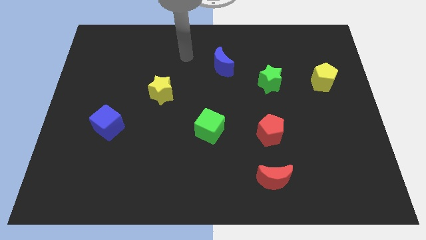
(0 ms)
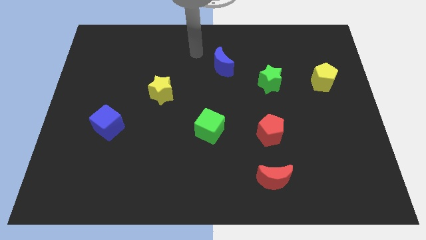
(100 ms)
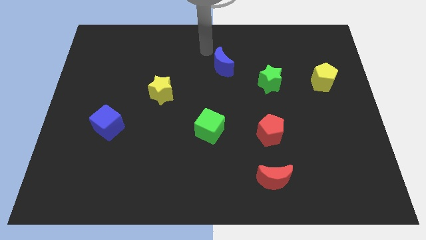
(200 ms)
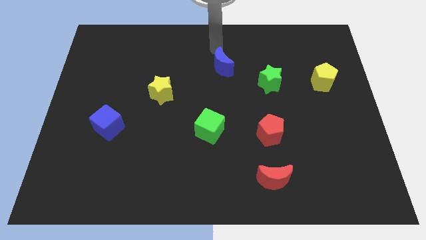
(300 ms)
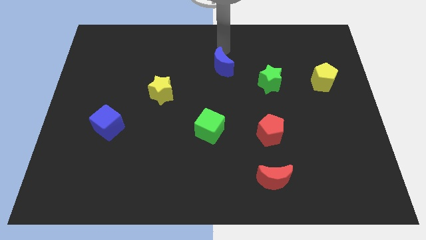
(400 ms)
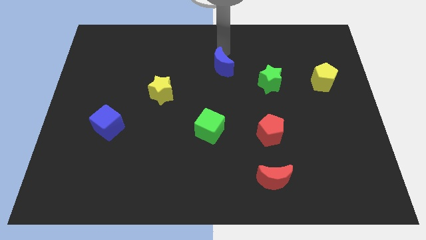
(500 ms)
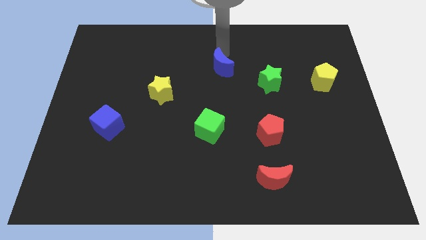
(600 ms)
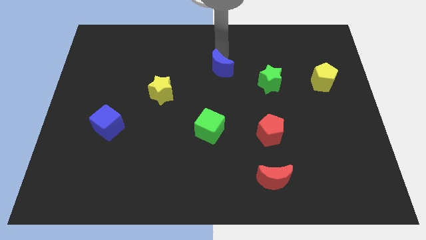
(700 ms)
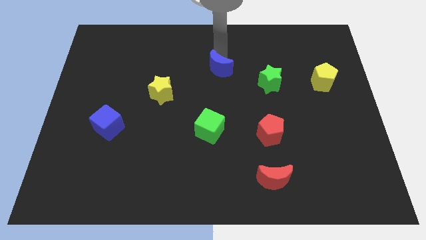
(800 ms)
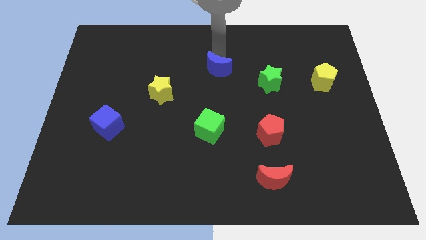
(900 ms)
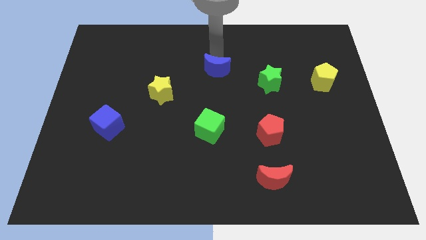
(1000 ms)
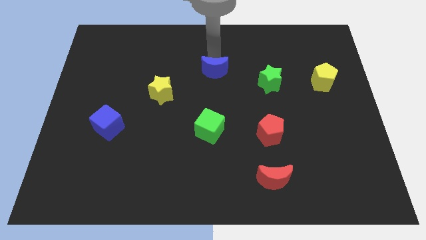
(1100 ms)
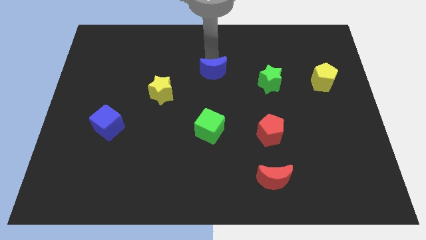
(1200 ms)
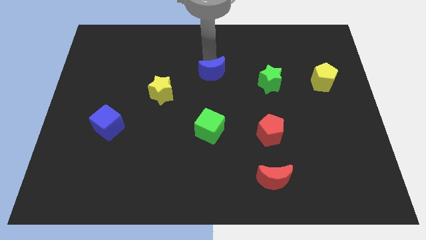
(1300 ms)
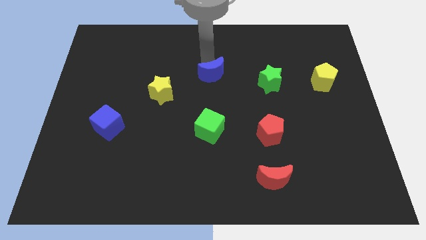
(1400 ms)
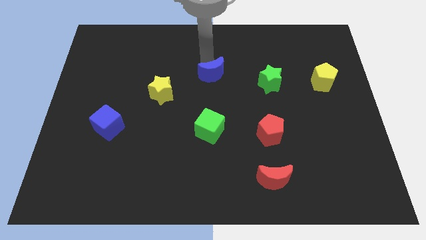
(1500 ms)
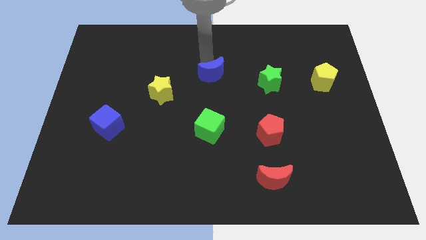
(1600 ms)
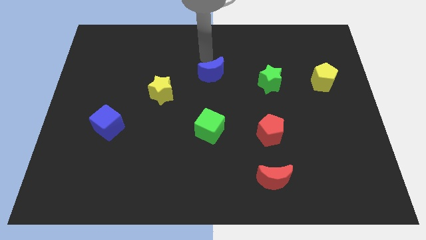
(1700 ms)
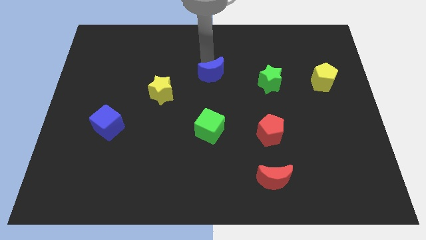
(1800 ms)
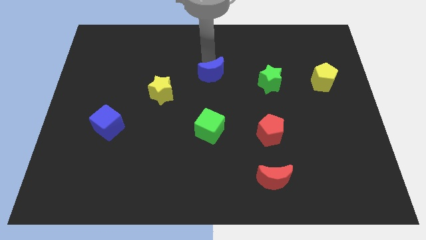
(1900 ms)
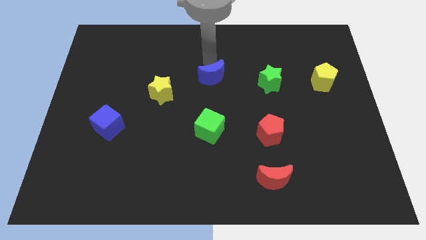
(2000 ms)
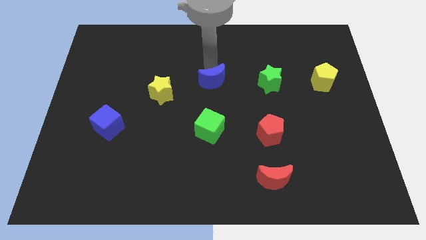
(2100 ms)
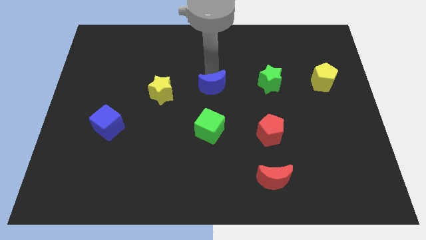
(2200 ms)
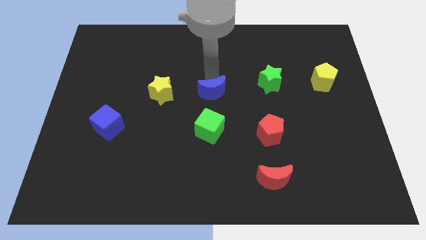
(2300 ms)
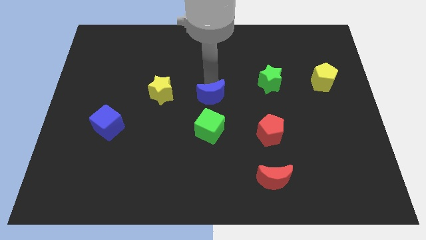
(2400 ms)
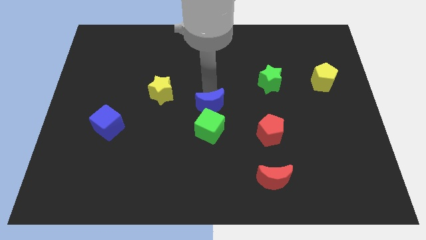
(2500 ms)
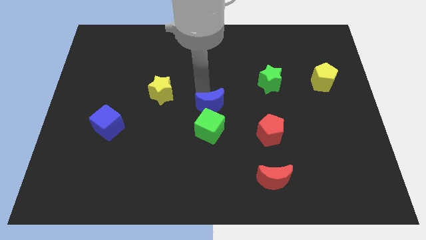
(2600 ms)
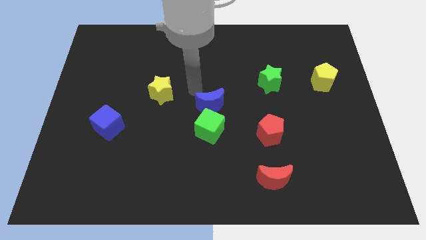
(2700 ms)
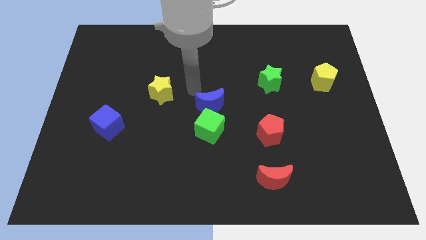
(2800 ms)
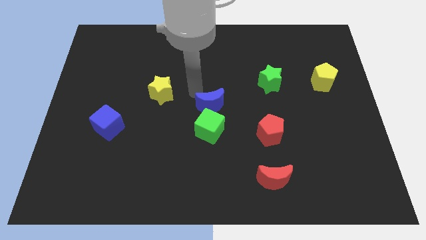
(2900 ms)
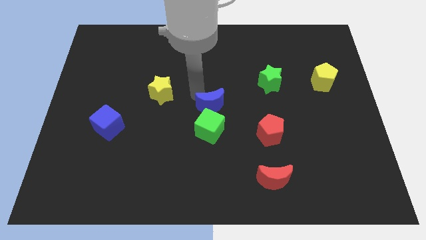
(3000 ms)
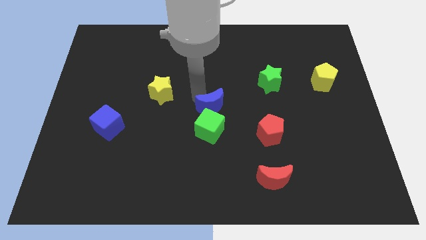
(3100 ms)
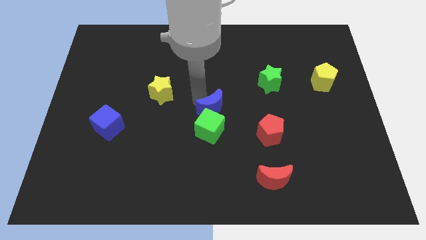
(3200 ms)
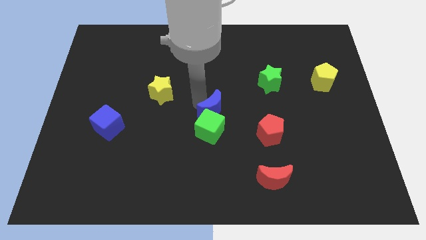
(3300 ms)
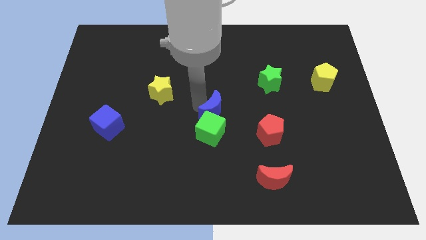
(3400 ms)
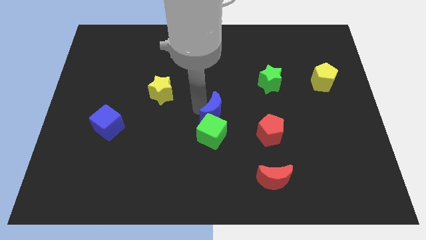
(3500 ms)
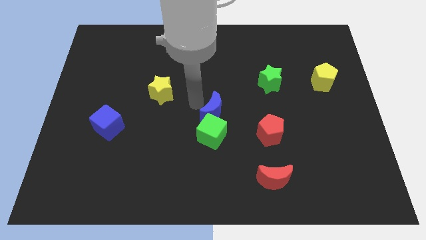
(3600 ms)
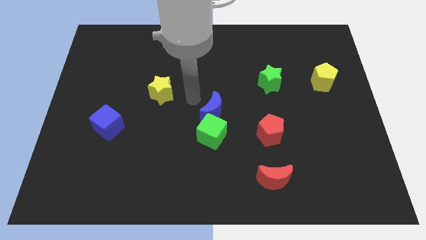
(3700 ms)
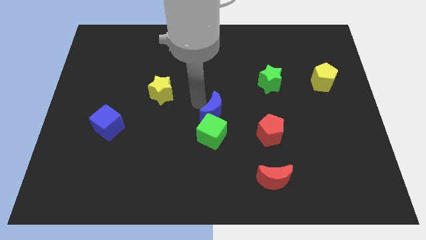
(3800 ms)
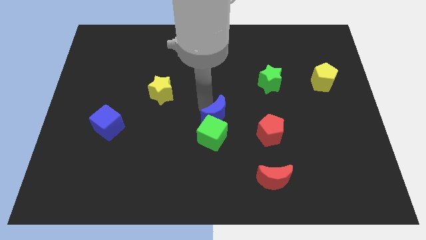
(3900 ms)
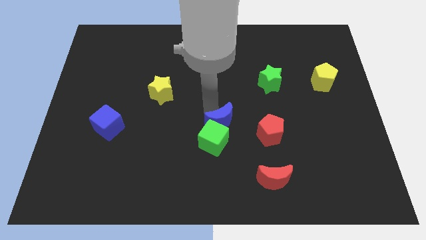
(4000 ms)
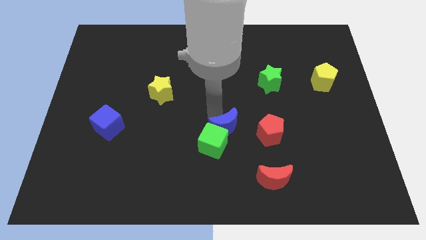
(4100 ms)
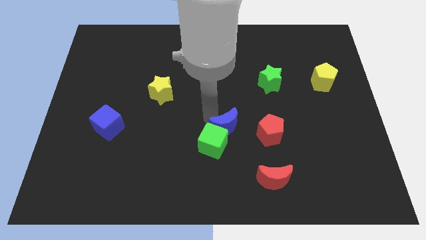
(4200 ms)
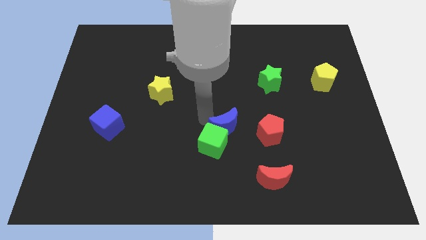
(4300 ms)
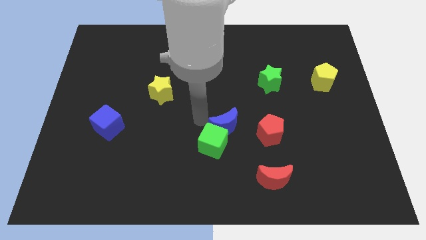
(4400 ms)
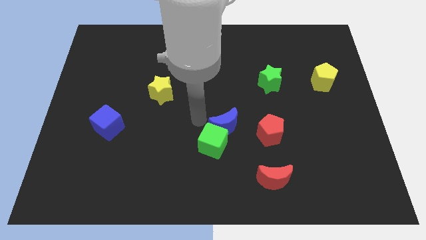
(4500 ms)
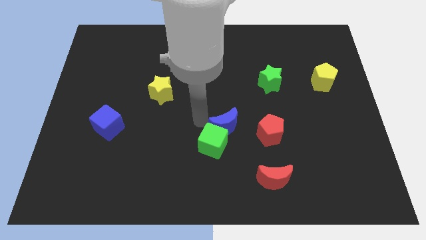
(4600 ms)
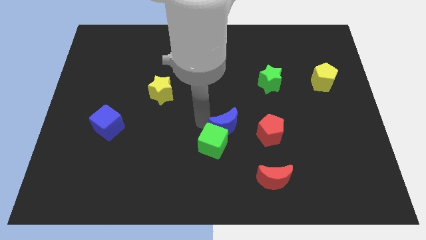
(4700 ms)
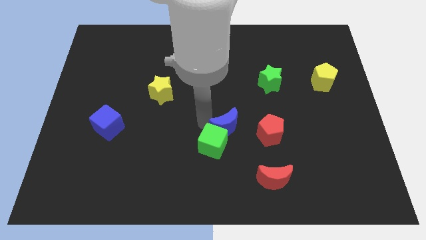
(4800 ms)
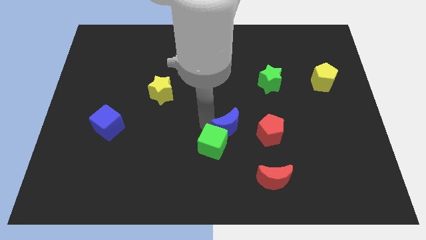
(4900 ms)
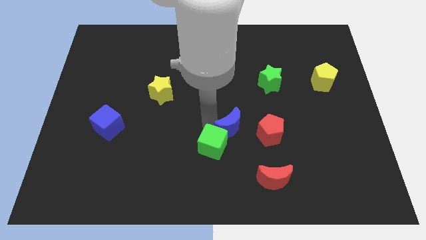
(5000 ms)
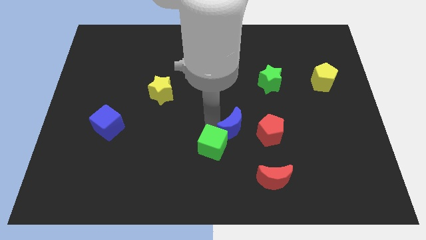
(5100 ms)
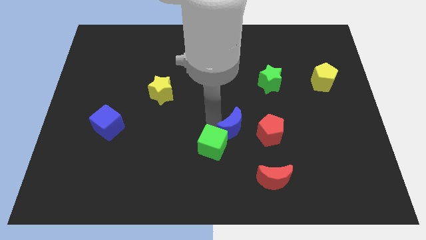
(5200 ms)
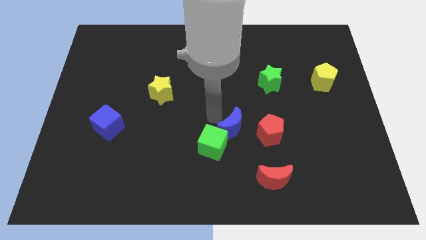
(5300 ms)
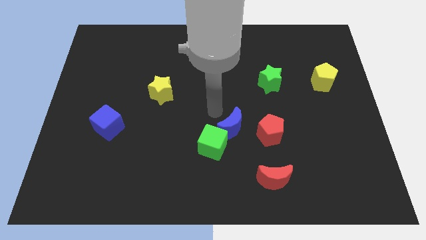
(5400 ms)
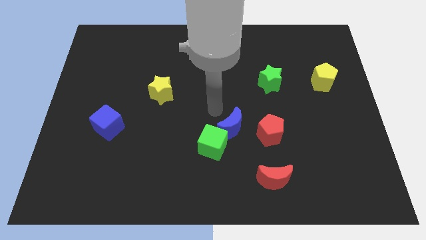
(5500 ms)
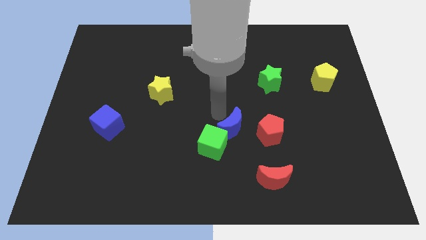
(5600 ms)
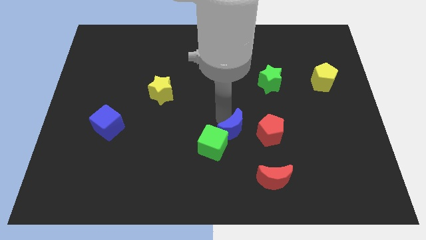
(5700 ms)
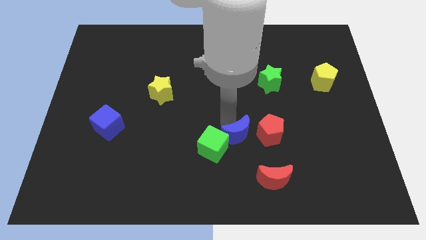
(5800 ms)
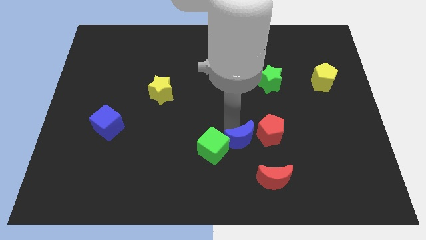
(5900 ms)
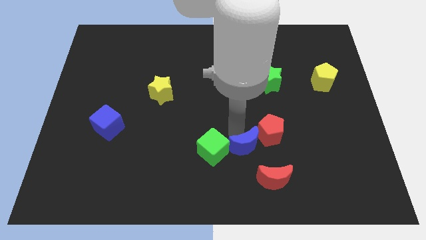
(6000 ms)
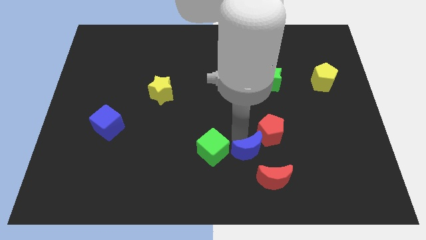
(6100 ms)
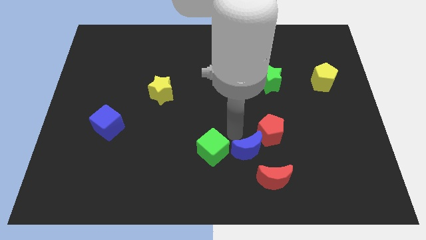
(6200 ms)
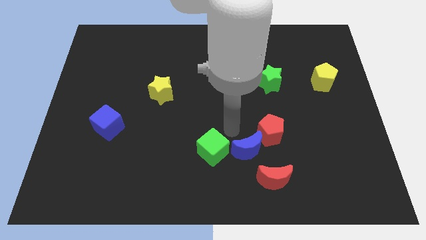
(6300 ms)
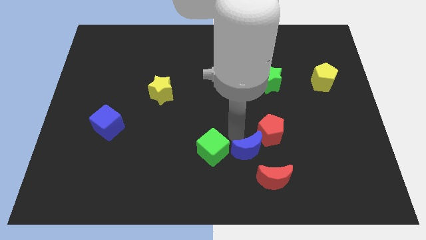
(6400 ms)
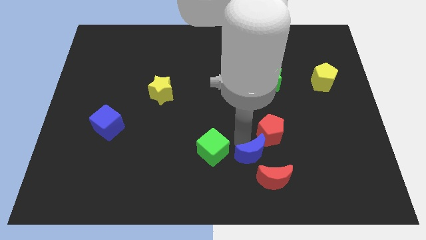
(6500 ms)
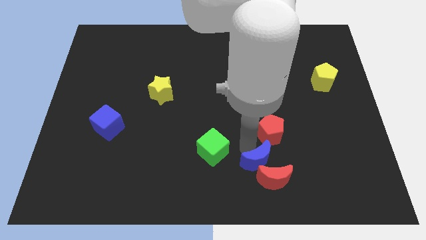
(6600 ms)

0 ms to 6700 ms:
slide the blue moon close to the red moon

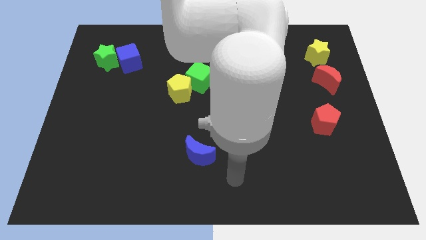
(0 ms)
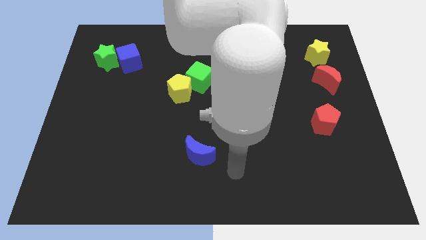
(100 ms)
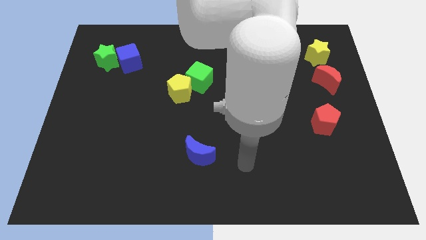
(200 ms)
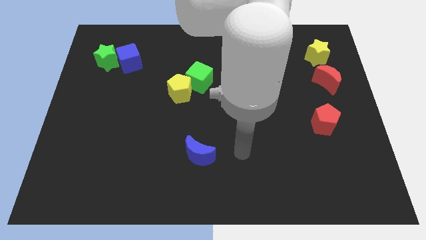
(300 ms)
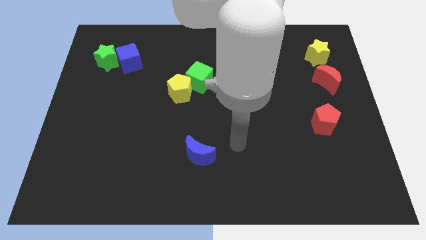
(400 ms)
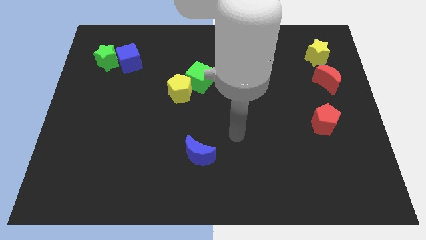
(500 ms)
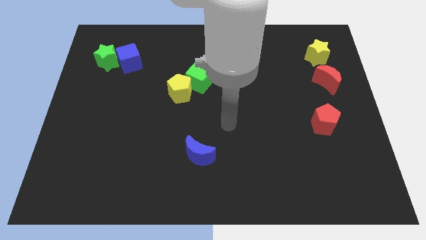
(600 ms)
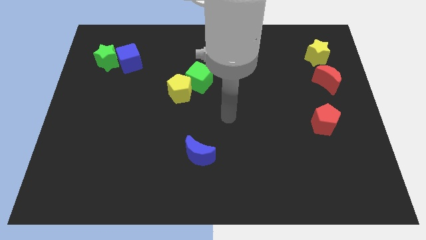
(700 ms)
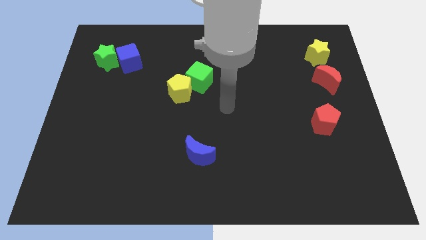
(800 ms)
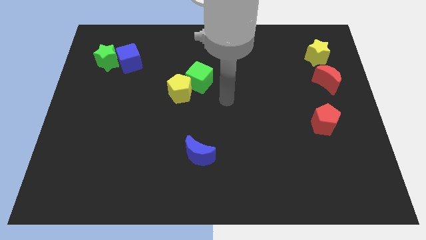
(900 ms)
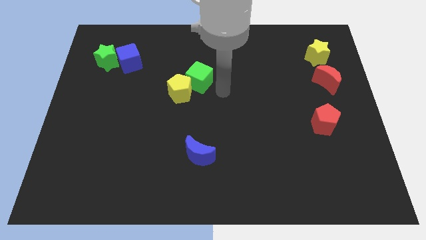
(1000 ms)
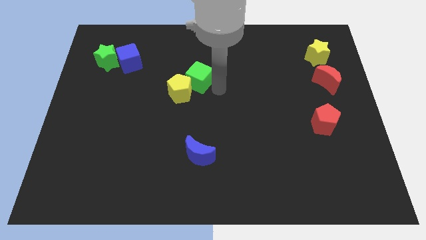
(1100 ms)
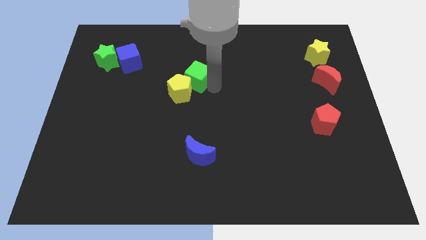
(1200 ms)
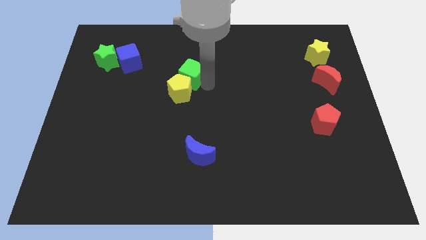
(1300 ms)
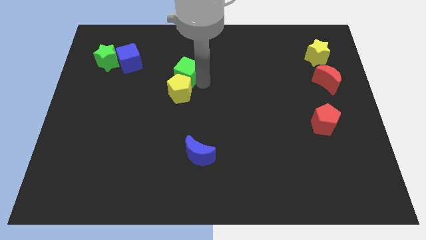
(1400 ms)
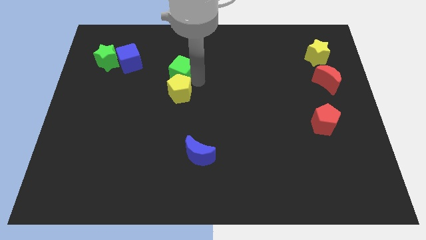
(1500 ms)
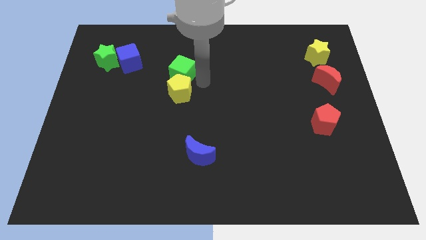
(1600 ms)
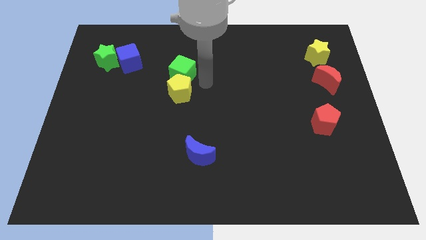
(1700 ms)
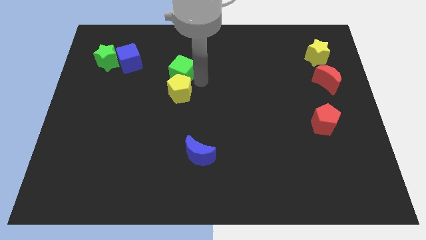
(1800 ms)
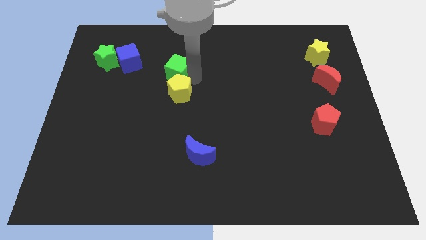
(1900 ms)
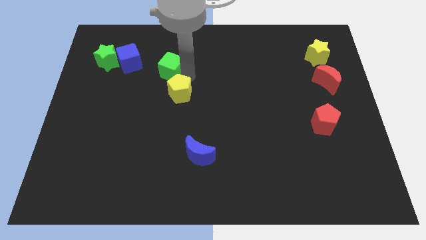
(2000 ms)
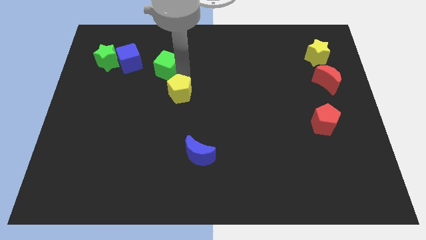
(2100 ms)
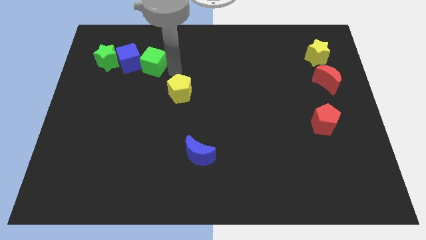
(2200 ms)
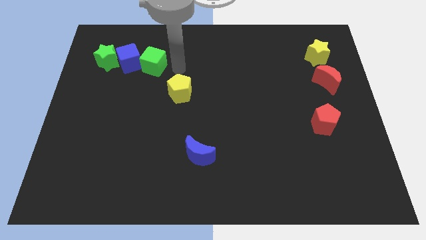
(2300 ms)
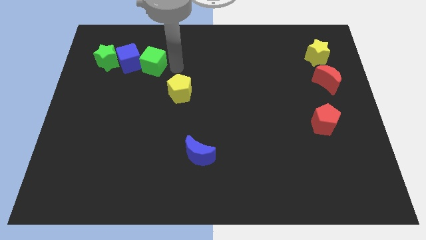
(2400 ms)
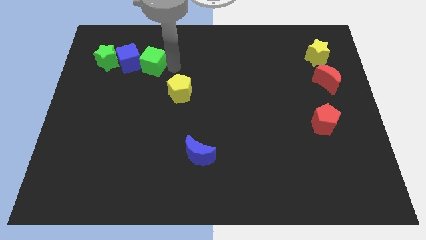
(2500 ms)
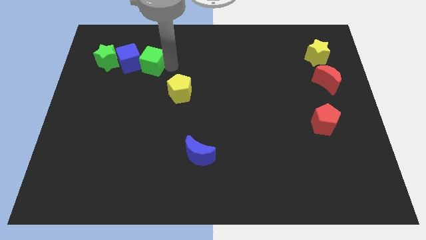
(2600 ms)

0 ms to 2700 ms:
move the green cube to the blue cube
